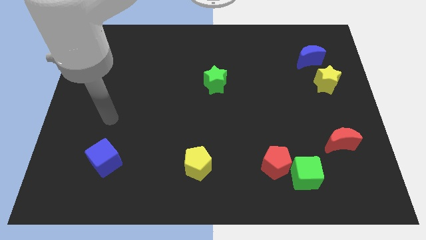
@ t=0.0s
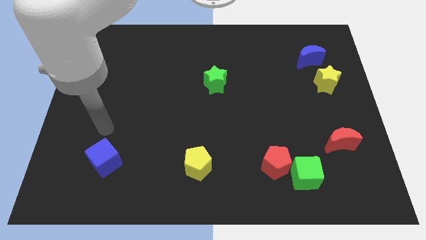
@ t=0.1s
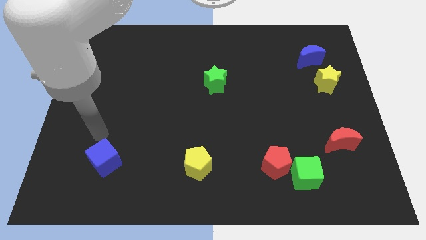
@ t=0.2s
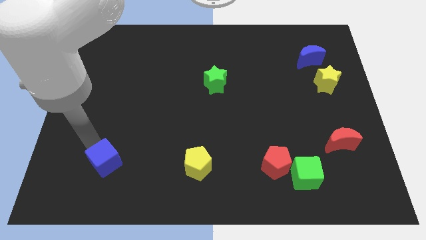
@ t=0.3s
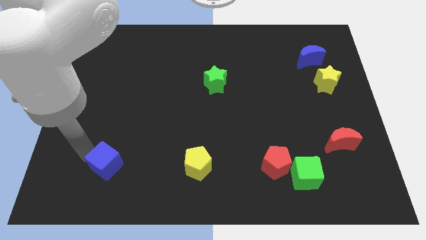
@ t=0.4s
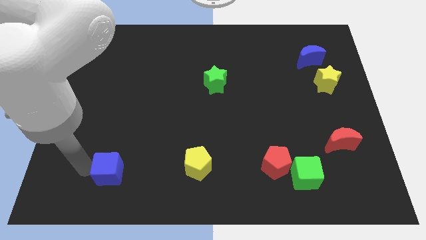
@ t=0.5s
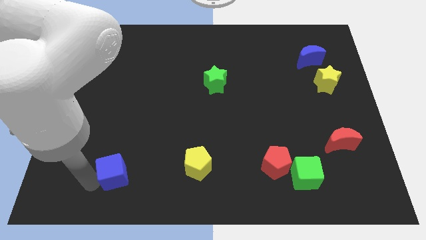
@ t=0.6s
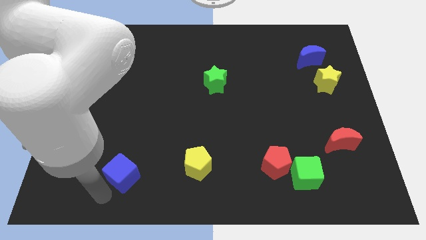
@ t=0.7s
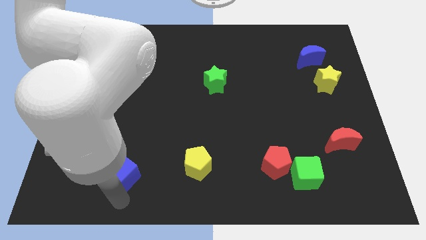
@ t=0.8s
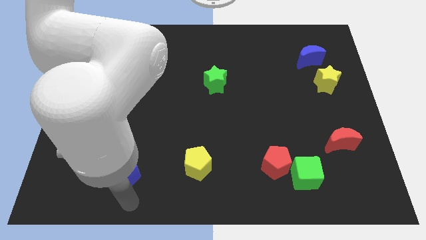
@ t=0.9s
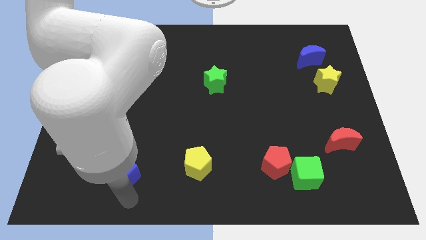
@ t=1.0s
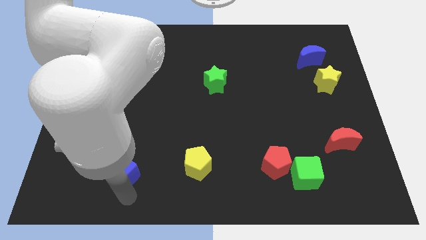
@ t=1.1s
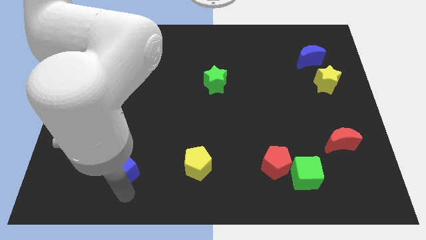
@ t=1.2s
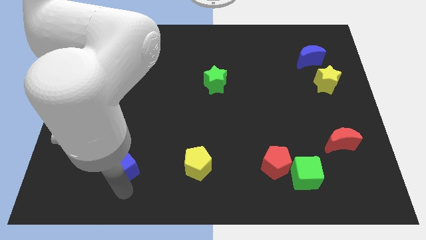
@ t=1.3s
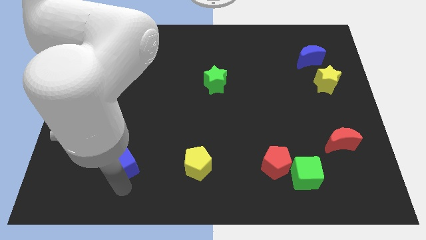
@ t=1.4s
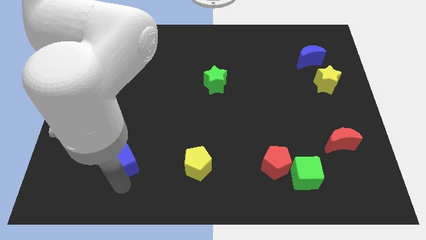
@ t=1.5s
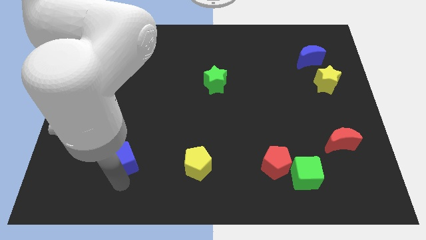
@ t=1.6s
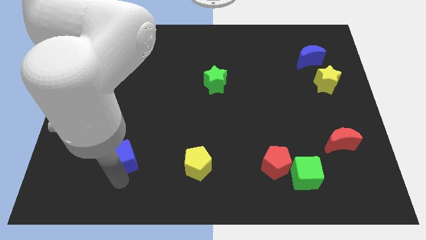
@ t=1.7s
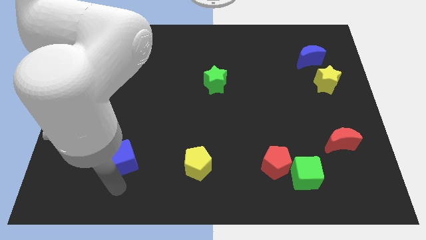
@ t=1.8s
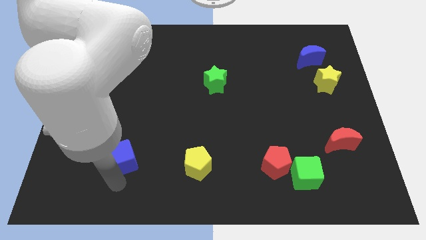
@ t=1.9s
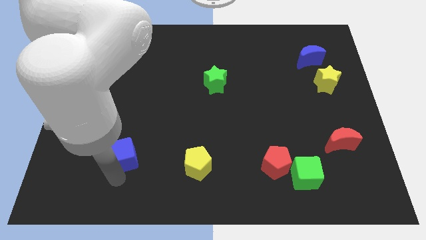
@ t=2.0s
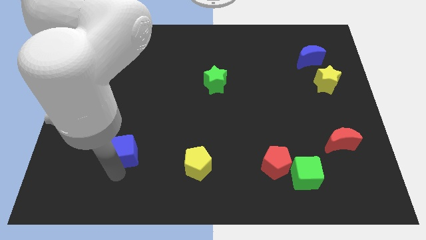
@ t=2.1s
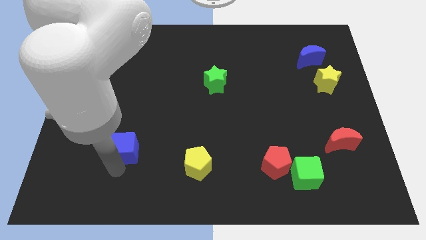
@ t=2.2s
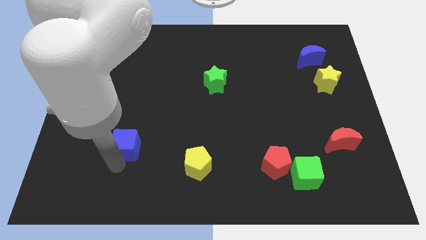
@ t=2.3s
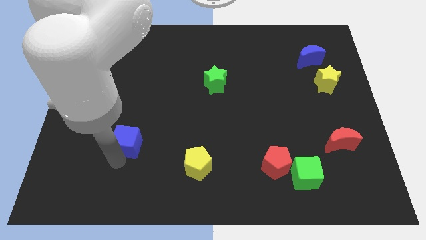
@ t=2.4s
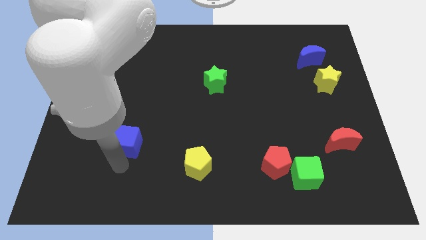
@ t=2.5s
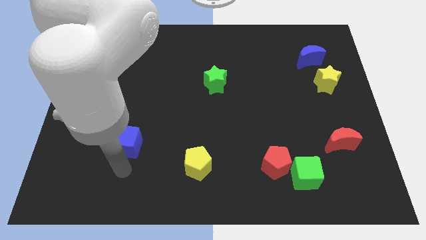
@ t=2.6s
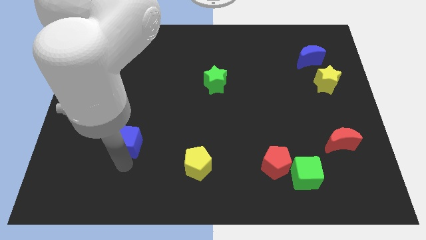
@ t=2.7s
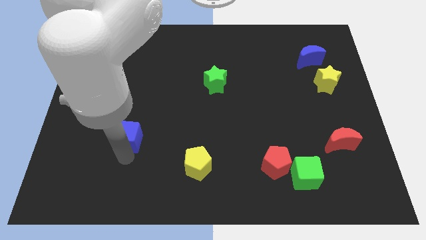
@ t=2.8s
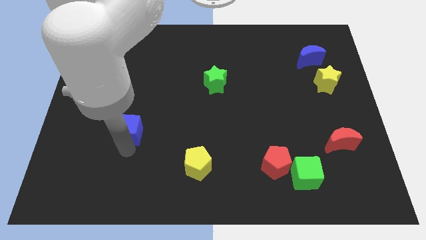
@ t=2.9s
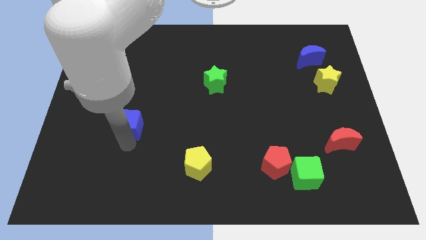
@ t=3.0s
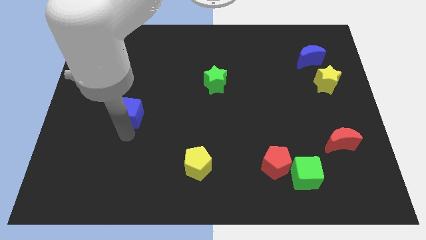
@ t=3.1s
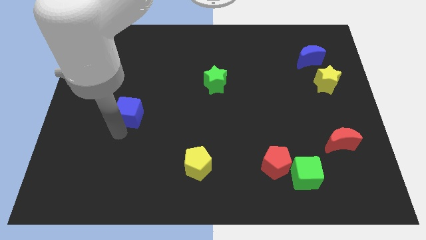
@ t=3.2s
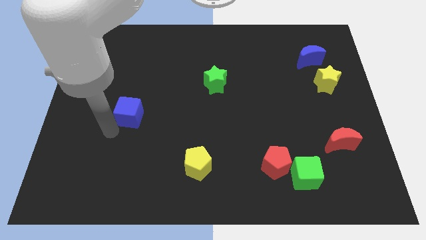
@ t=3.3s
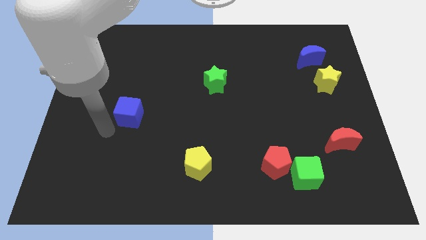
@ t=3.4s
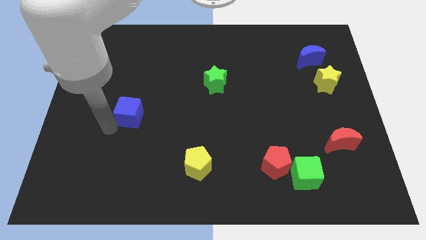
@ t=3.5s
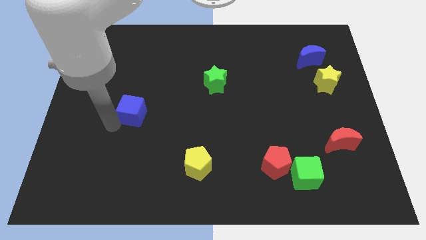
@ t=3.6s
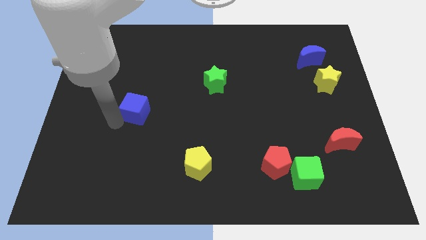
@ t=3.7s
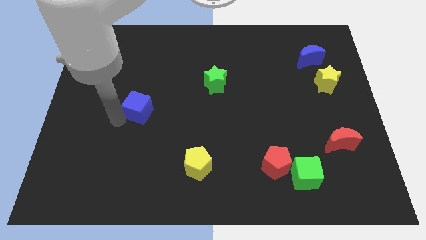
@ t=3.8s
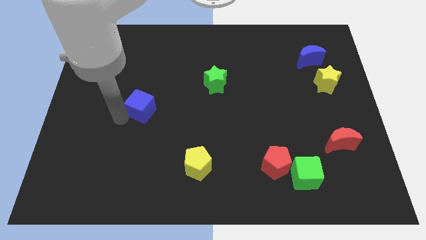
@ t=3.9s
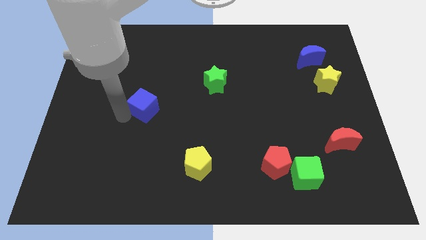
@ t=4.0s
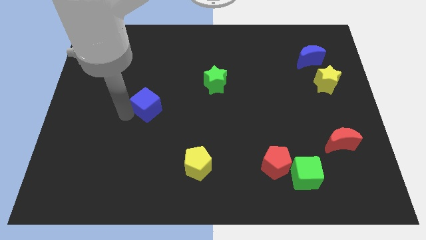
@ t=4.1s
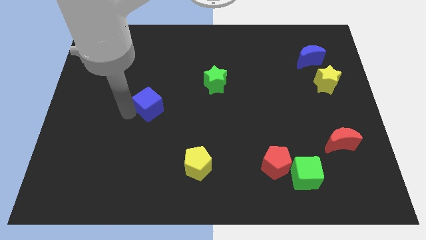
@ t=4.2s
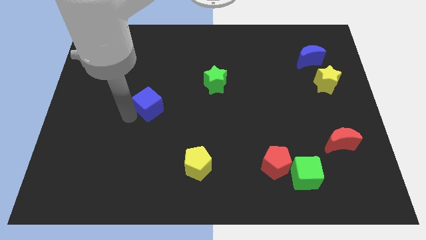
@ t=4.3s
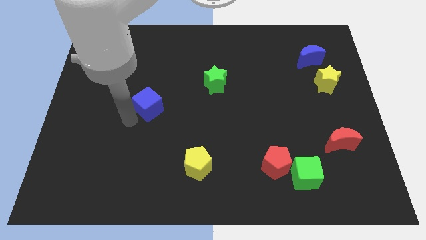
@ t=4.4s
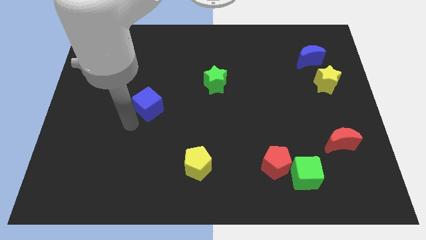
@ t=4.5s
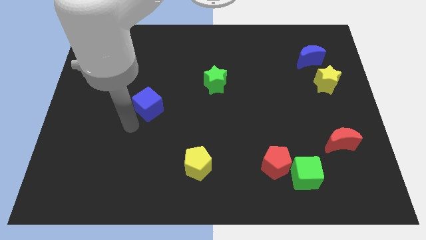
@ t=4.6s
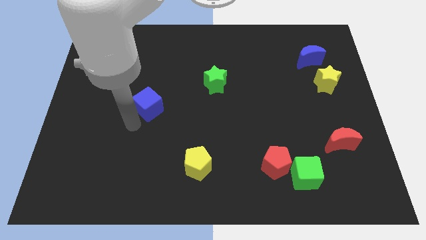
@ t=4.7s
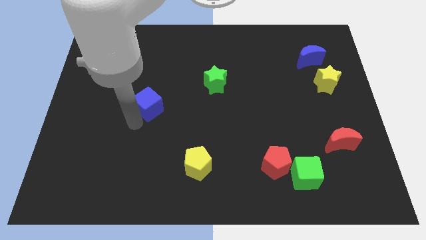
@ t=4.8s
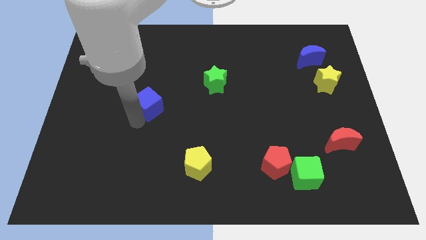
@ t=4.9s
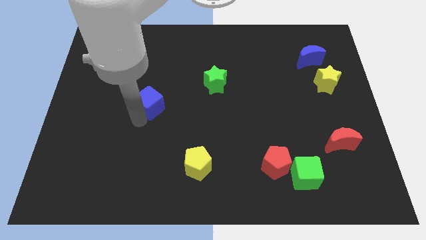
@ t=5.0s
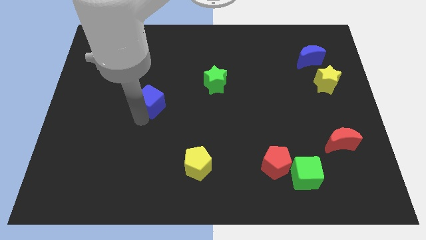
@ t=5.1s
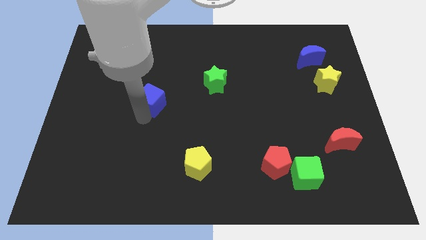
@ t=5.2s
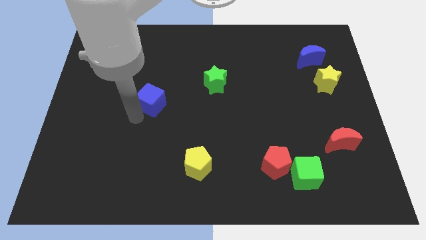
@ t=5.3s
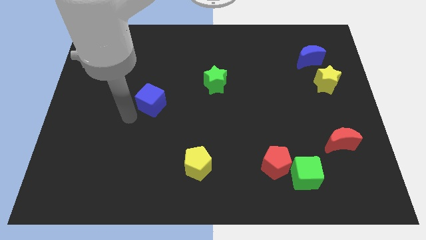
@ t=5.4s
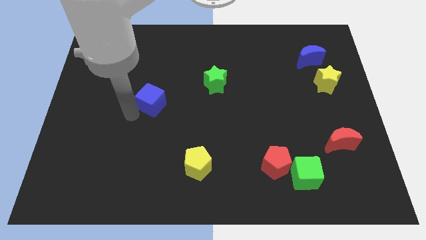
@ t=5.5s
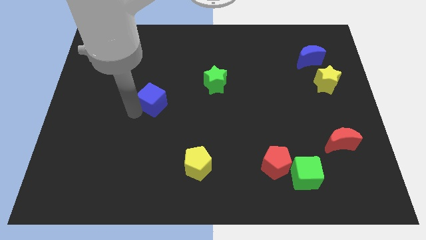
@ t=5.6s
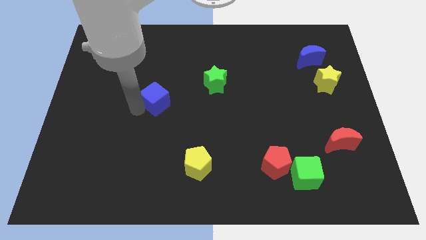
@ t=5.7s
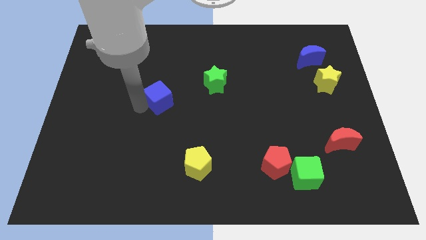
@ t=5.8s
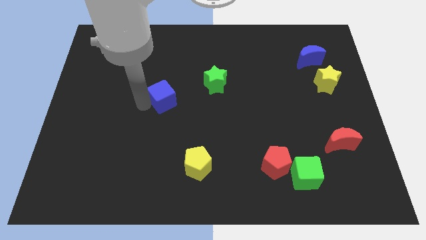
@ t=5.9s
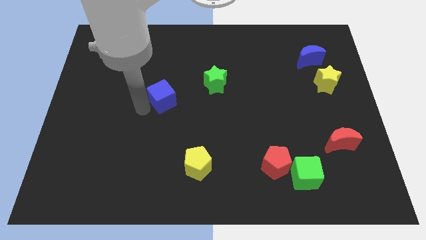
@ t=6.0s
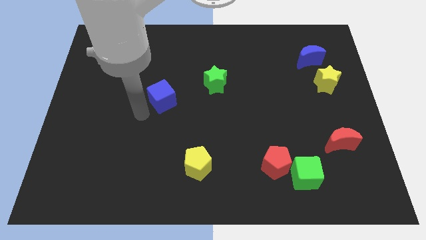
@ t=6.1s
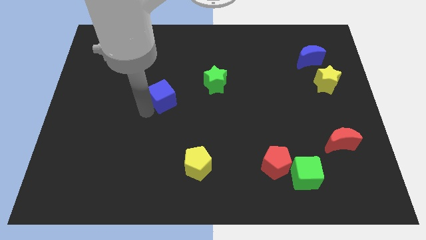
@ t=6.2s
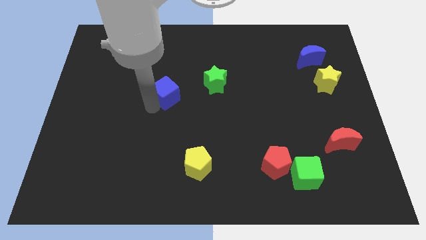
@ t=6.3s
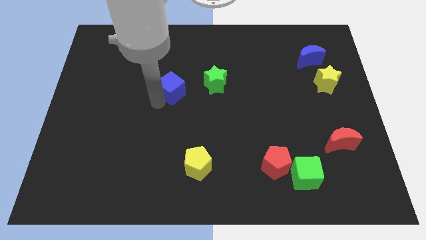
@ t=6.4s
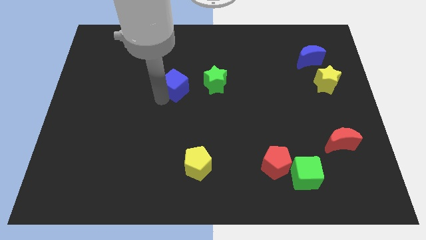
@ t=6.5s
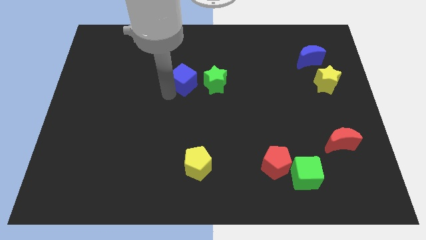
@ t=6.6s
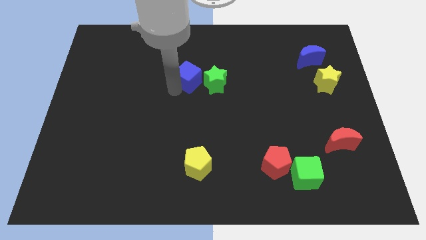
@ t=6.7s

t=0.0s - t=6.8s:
move the blue cube to the top left of the green star

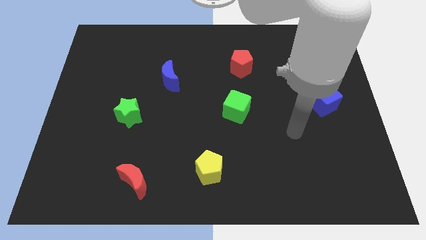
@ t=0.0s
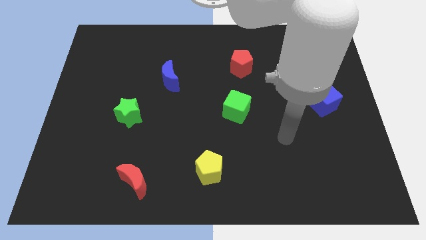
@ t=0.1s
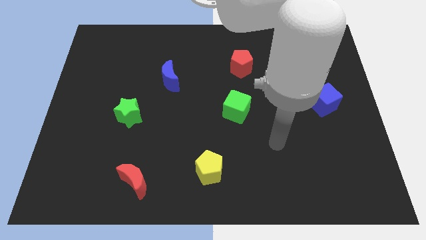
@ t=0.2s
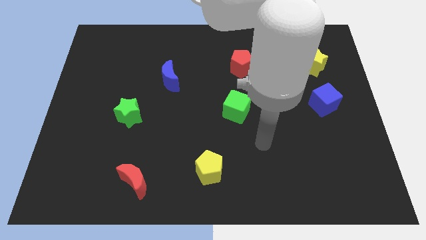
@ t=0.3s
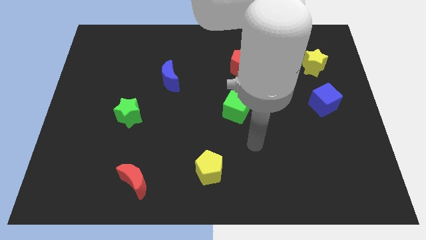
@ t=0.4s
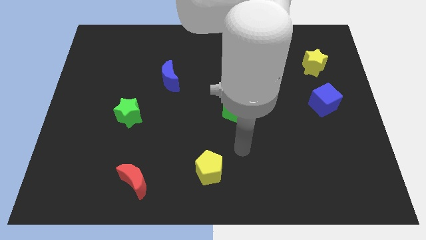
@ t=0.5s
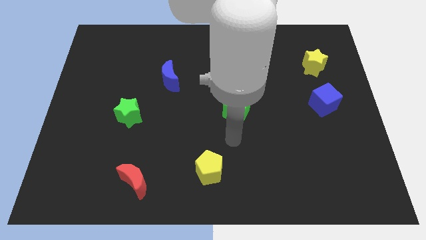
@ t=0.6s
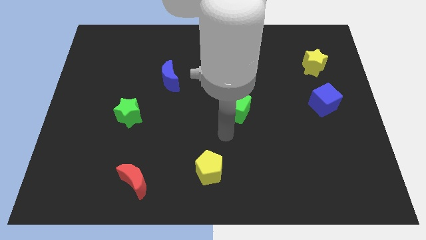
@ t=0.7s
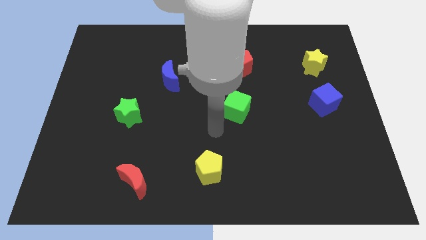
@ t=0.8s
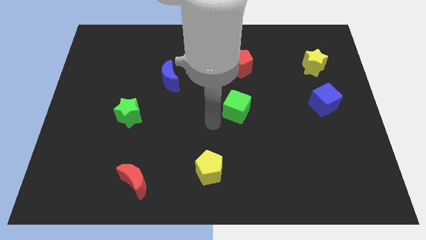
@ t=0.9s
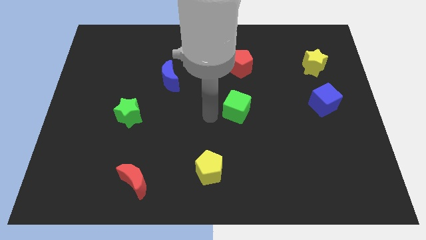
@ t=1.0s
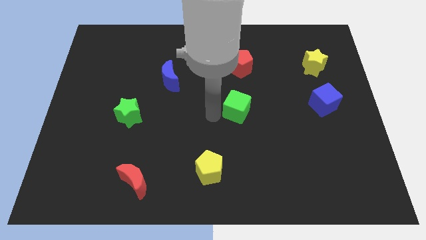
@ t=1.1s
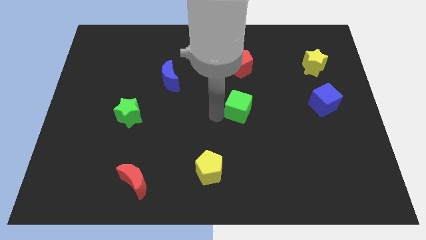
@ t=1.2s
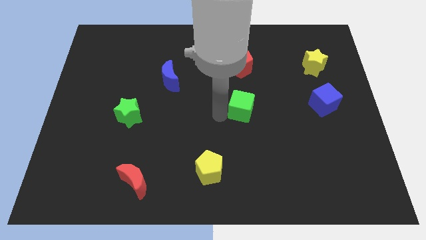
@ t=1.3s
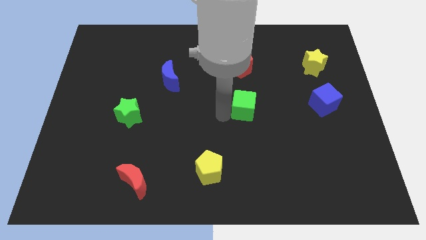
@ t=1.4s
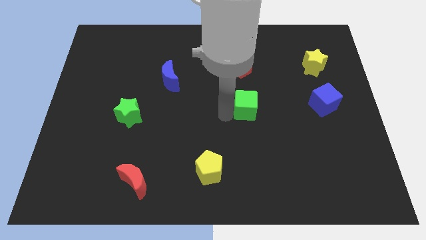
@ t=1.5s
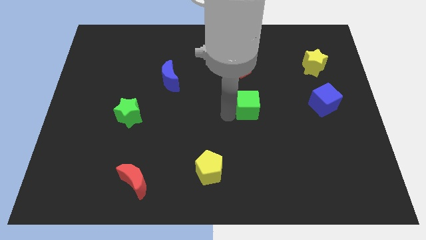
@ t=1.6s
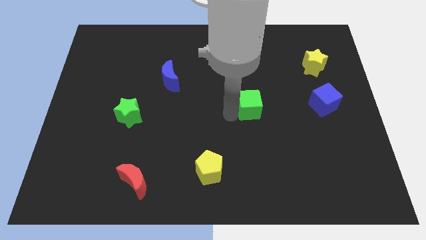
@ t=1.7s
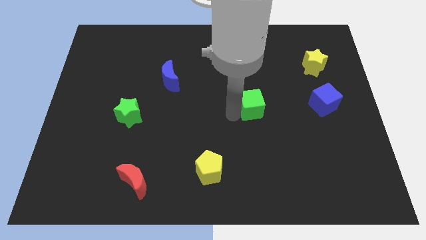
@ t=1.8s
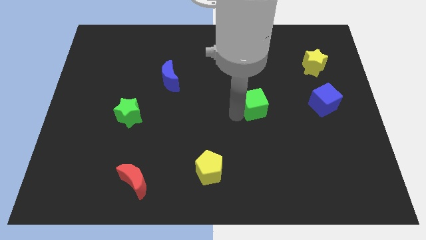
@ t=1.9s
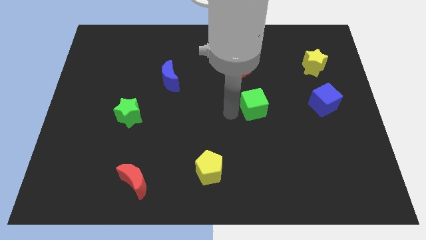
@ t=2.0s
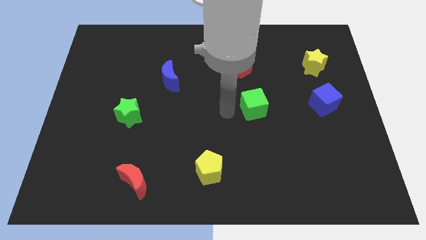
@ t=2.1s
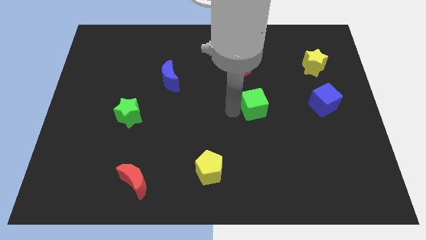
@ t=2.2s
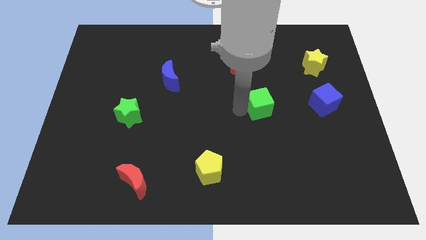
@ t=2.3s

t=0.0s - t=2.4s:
slide the green cube just left of the blue cube
